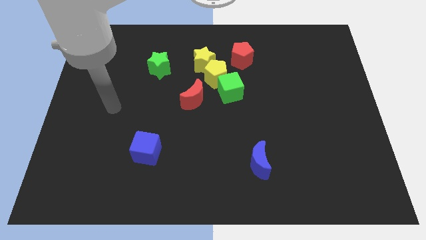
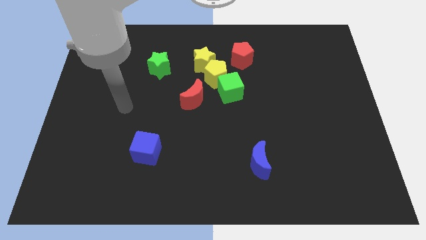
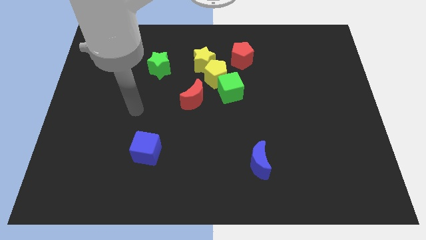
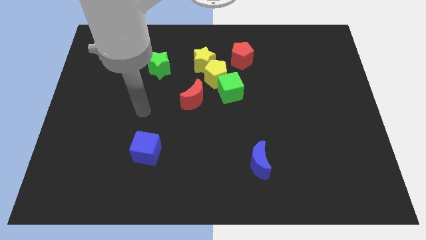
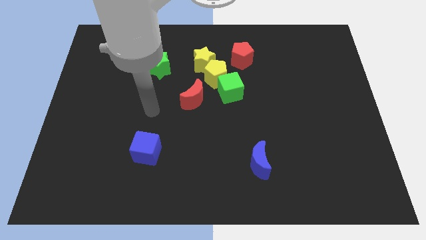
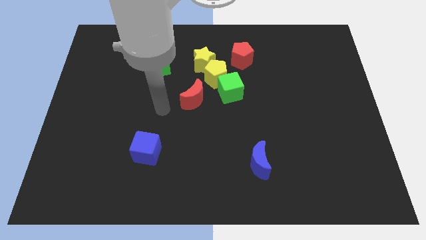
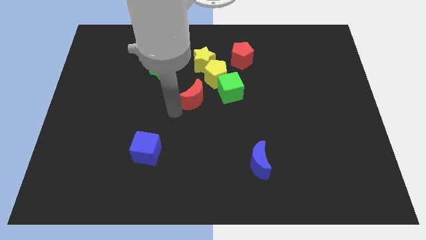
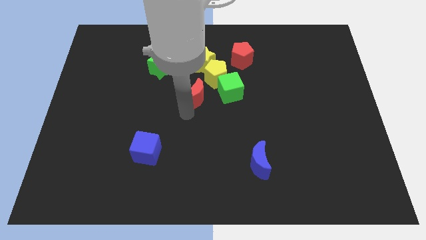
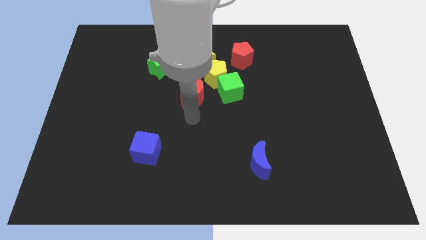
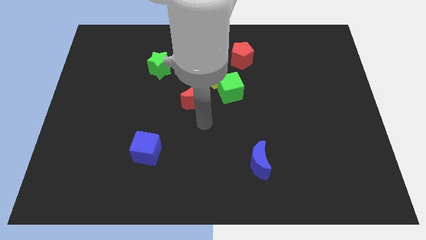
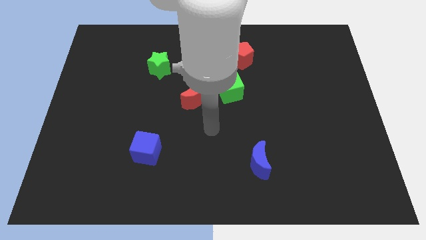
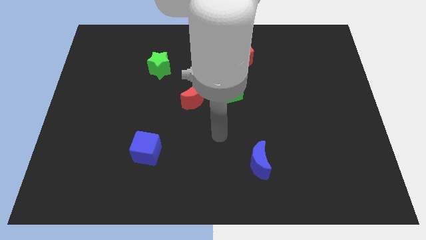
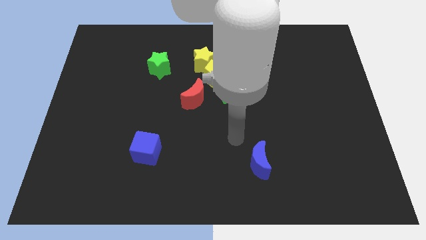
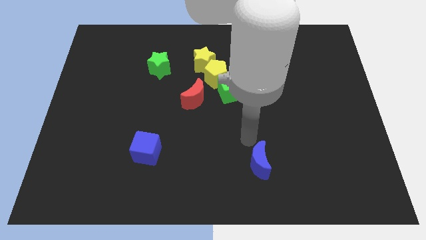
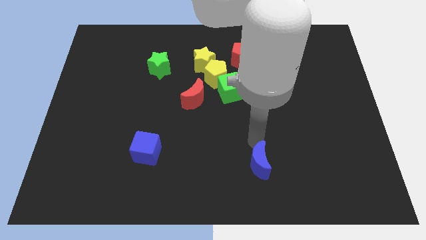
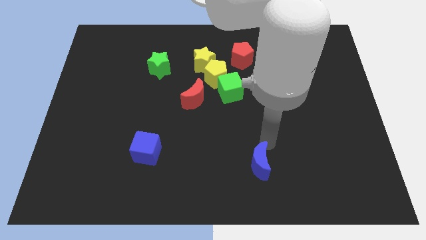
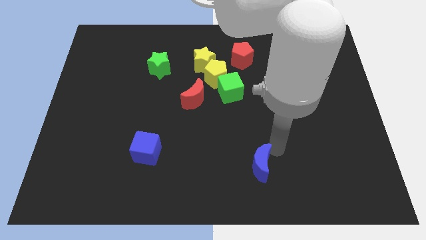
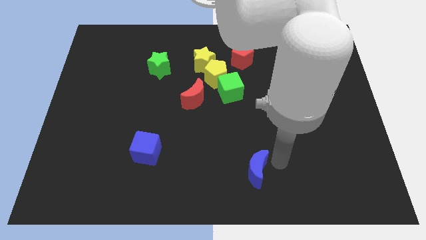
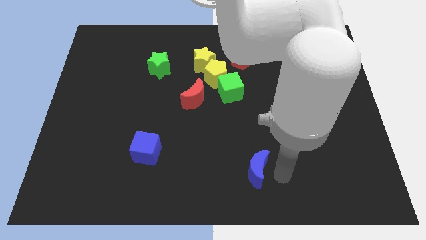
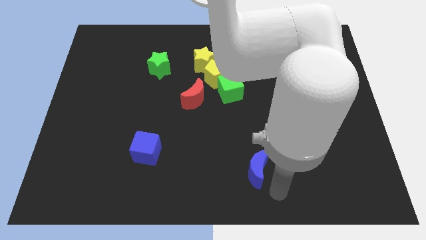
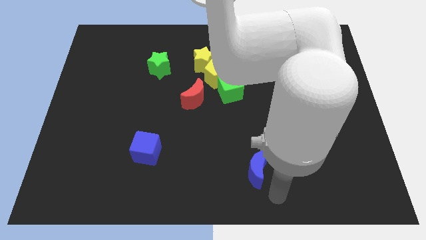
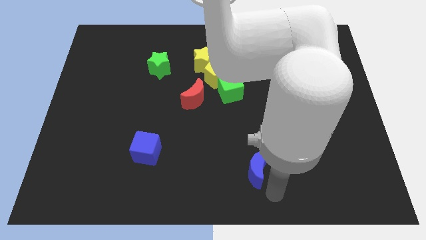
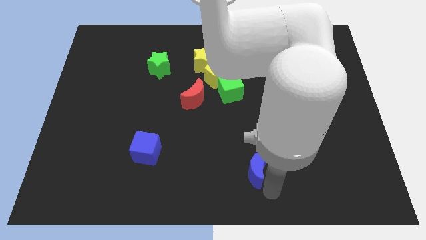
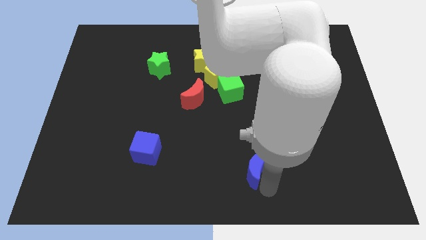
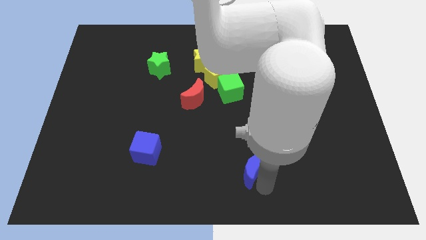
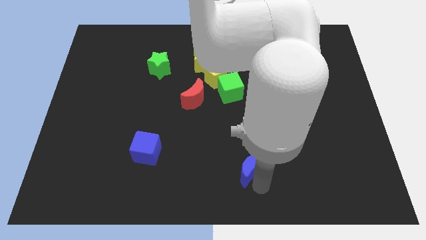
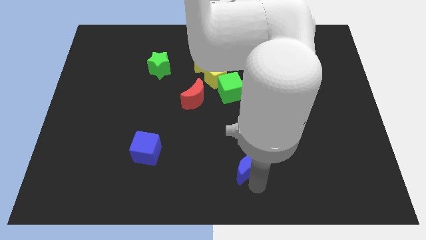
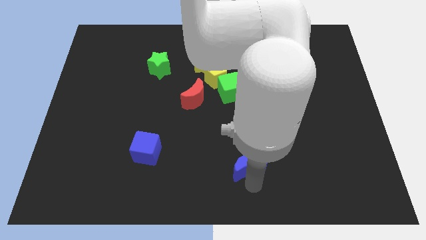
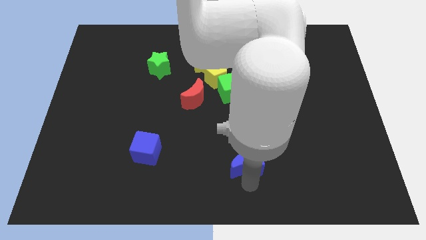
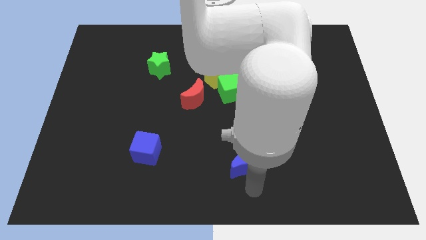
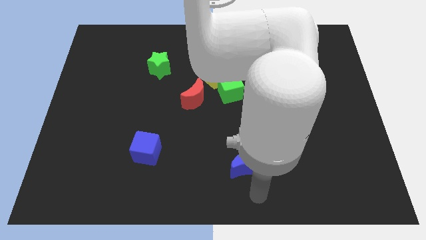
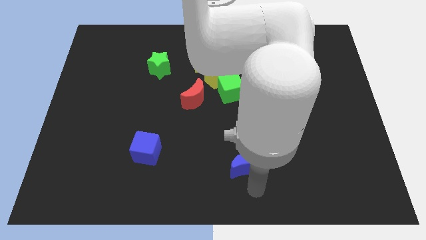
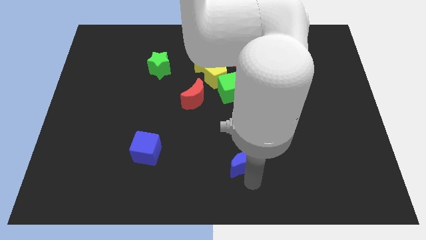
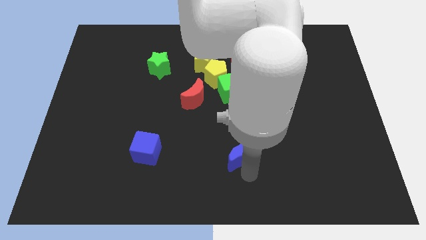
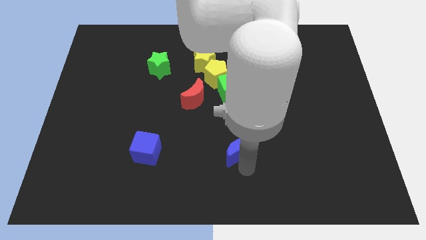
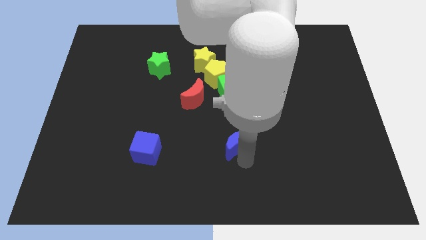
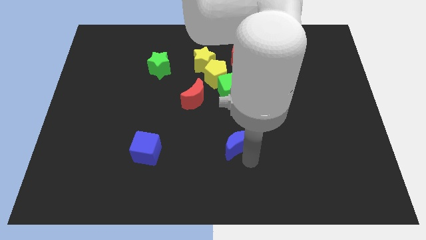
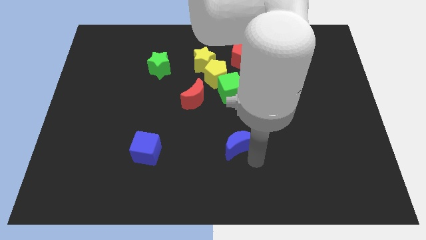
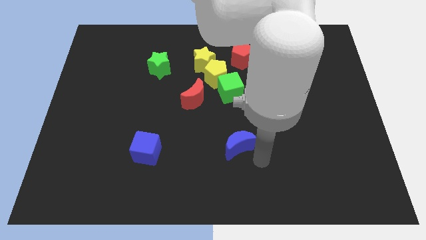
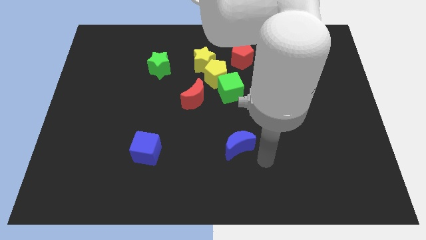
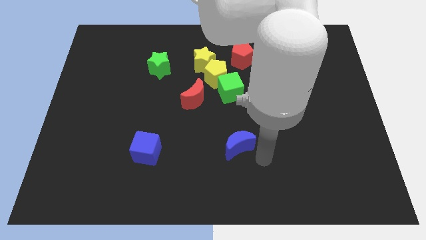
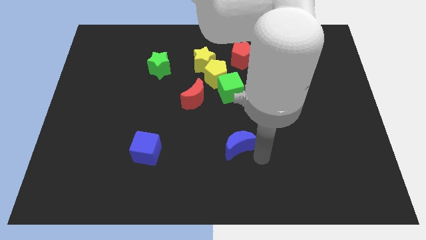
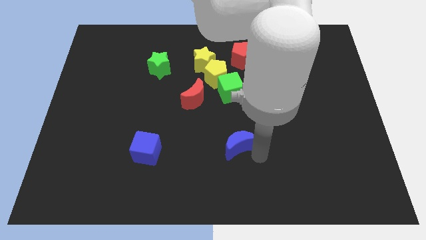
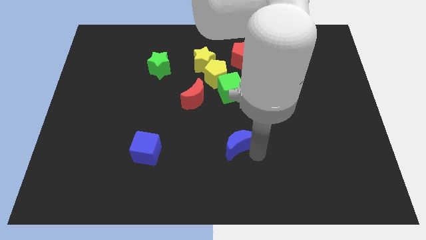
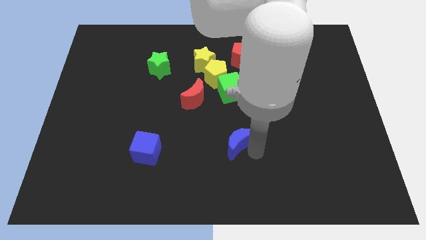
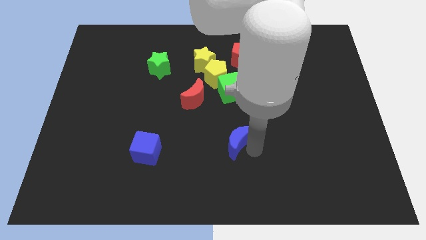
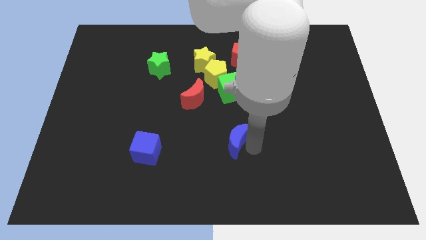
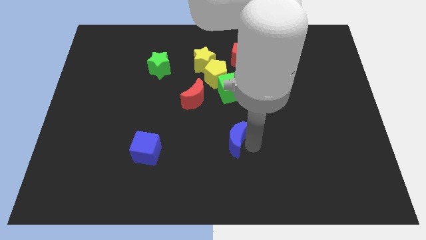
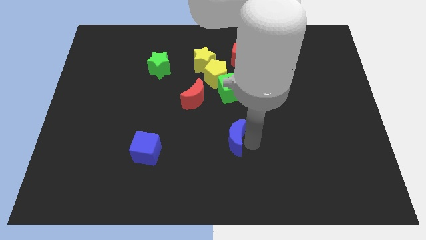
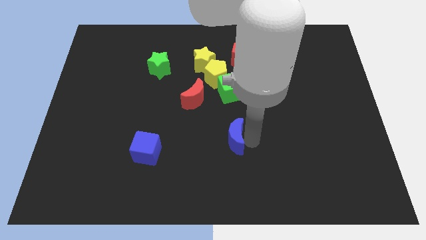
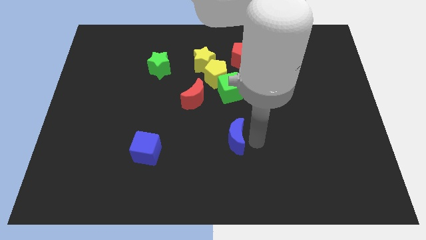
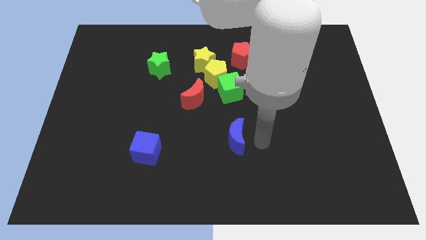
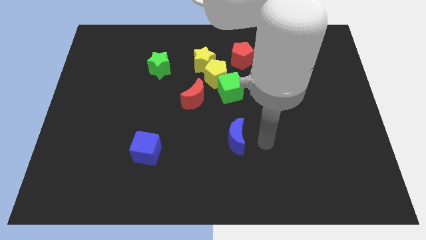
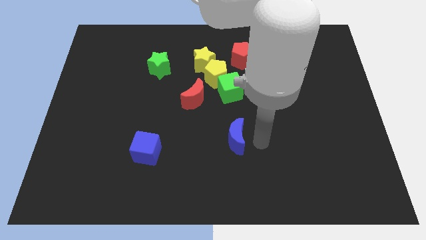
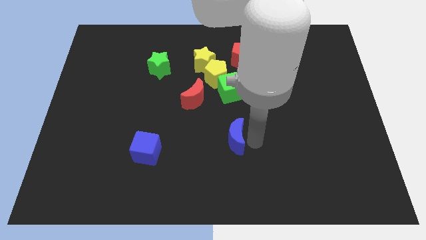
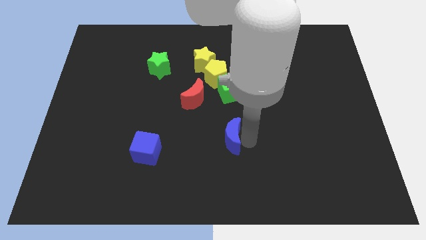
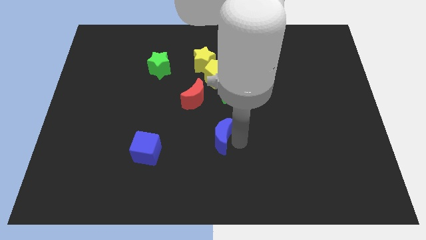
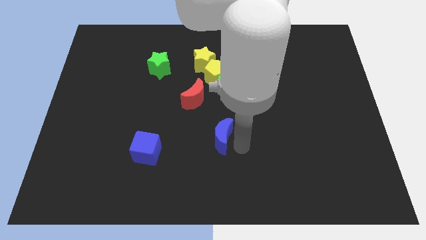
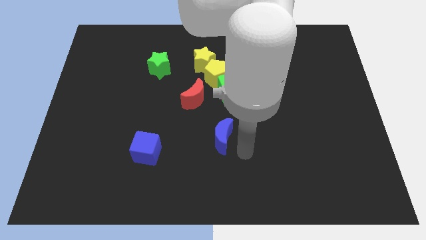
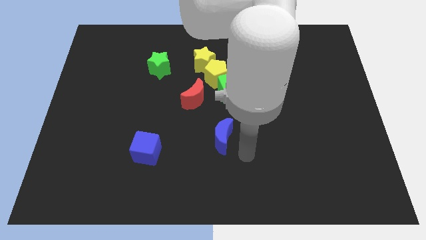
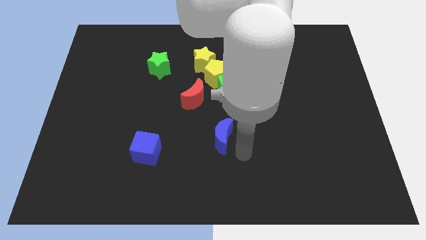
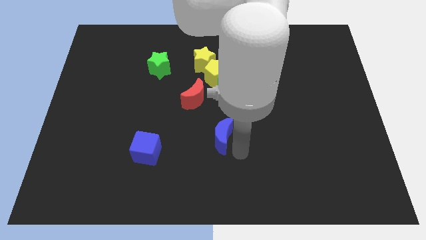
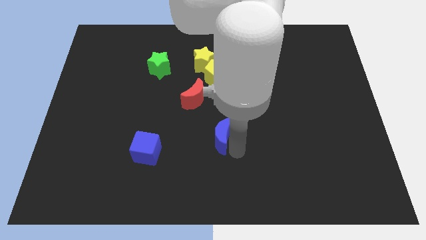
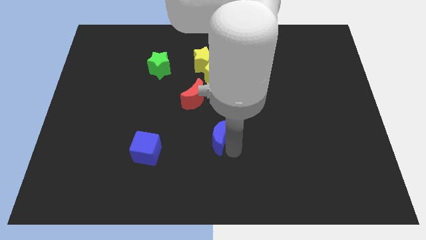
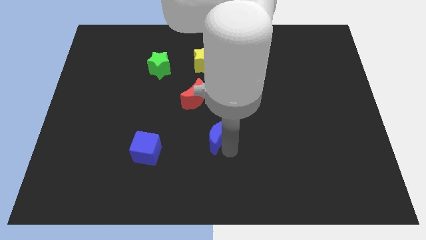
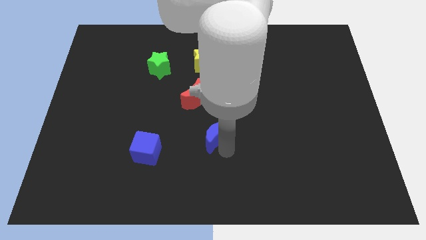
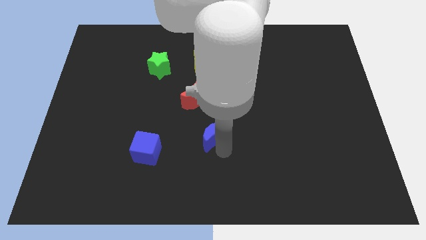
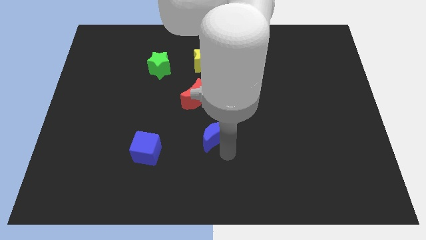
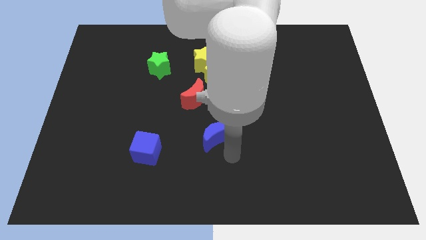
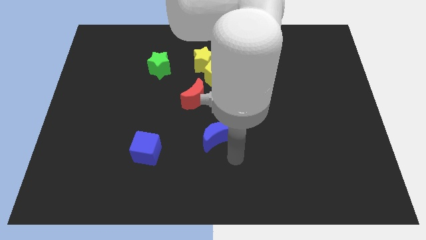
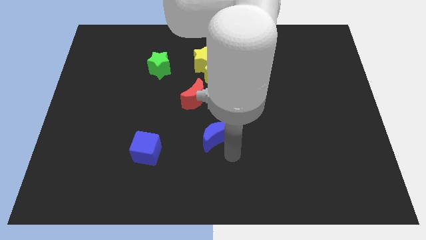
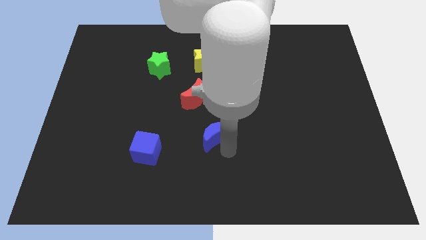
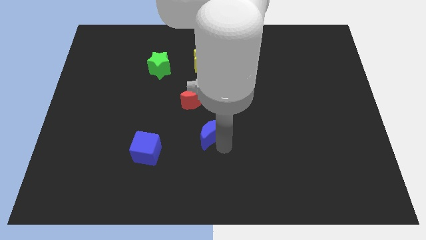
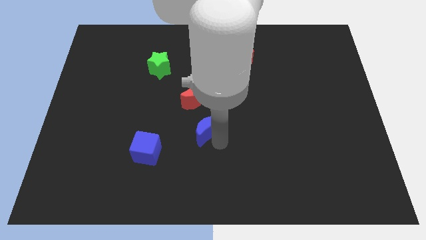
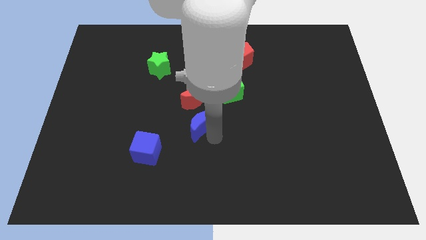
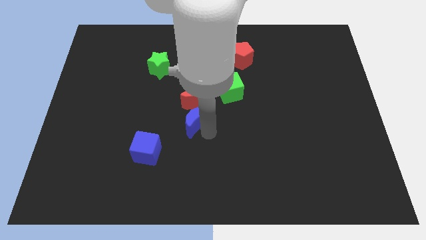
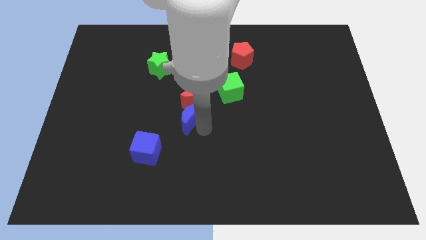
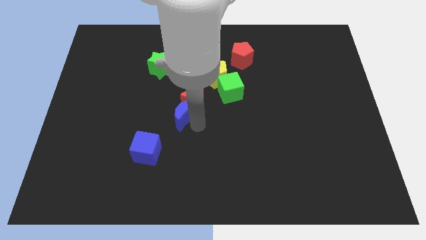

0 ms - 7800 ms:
slide the blue moon upwards and left
